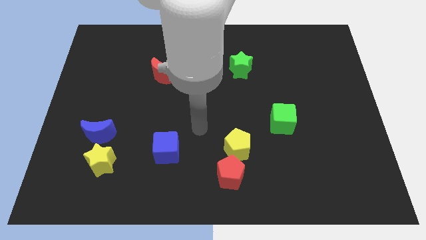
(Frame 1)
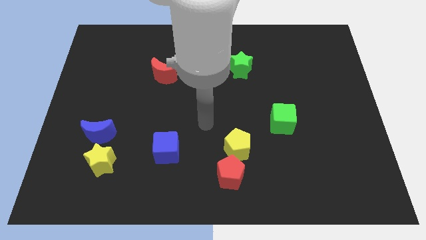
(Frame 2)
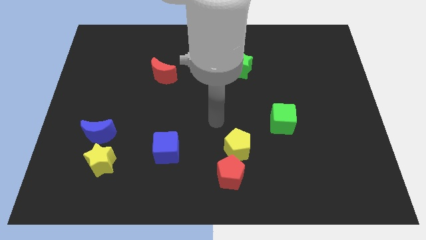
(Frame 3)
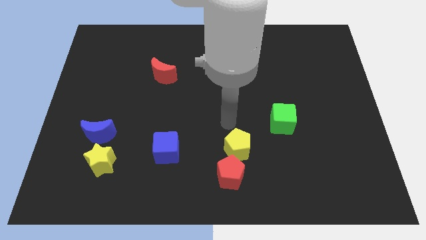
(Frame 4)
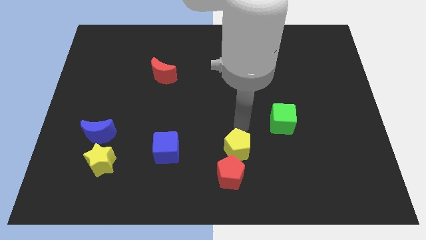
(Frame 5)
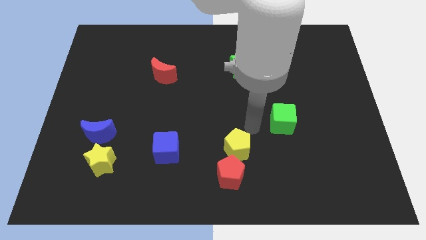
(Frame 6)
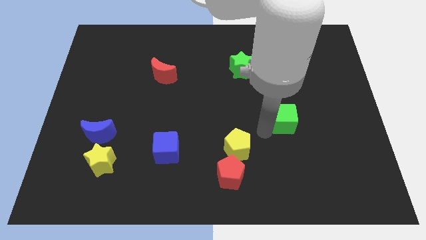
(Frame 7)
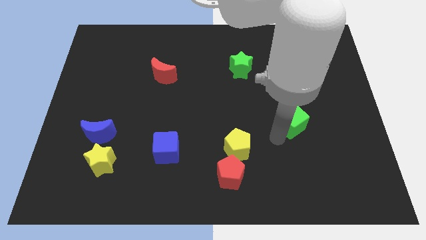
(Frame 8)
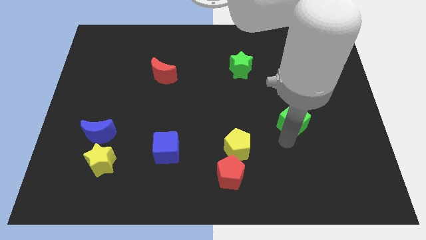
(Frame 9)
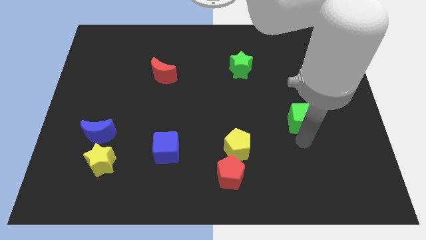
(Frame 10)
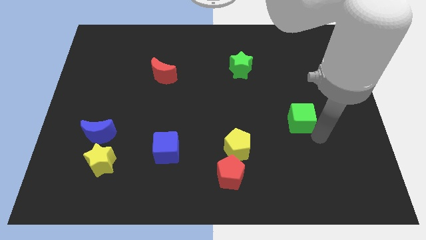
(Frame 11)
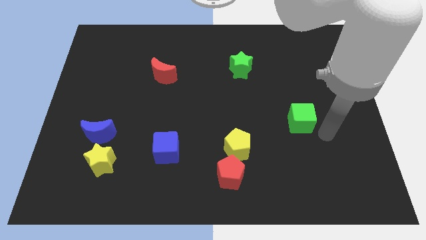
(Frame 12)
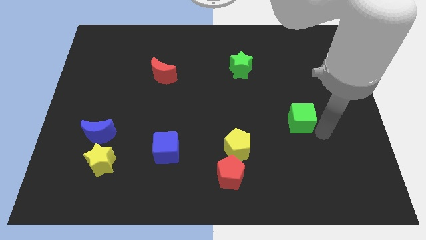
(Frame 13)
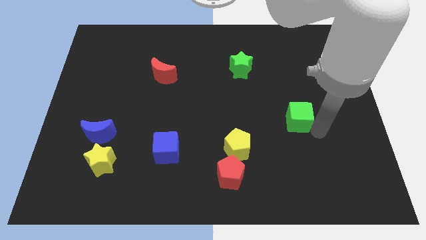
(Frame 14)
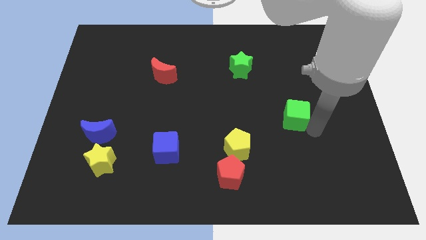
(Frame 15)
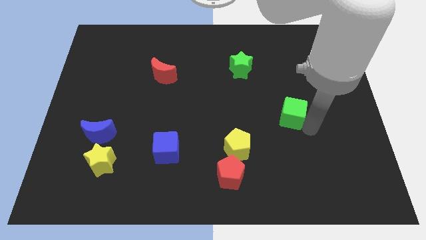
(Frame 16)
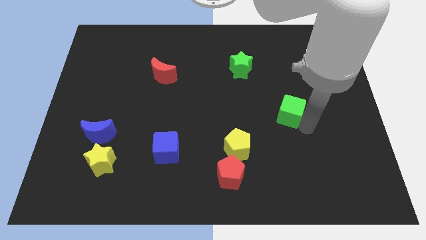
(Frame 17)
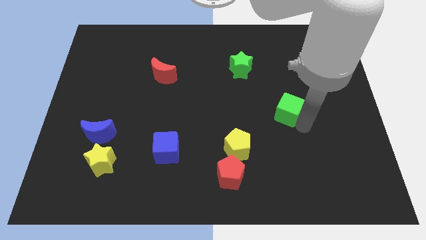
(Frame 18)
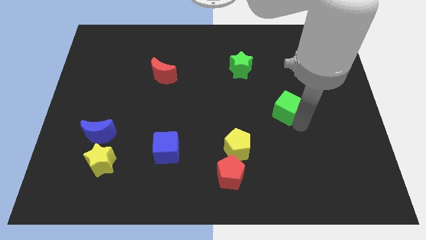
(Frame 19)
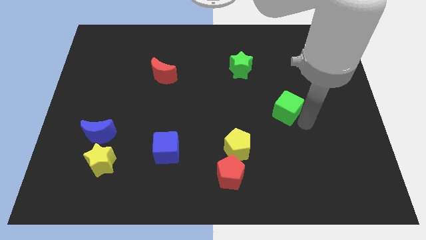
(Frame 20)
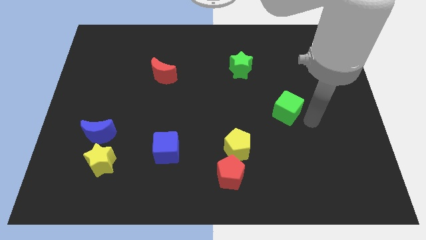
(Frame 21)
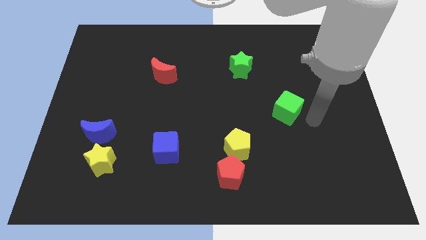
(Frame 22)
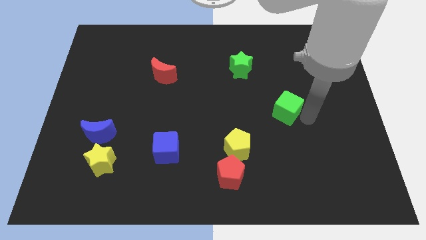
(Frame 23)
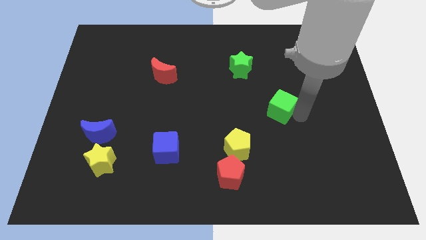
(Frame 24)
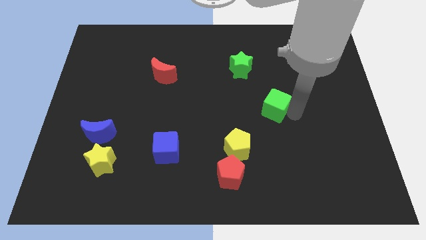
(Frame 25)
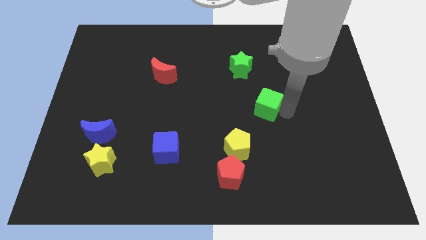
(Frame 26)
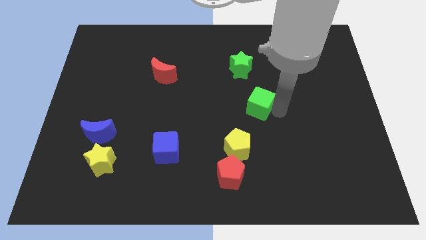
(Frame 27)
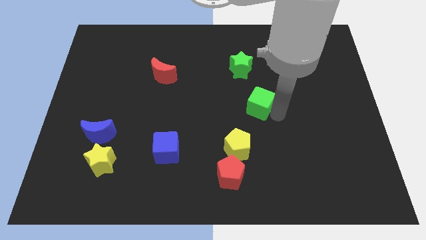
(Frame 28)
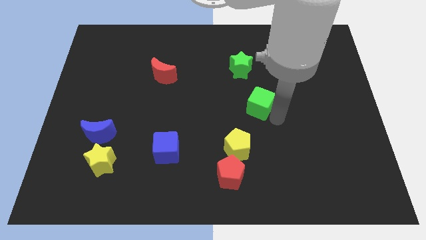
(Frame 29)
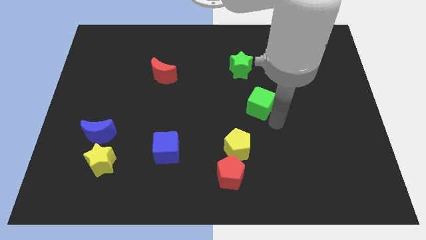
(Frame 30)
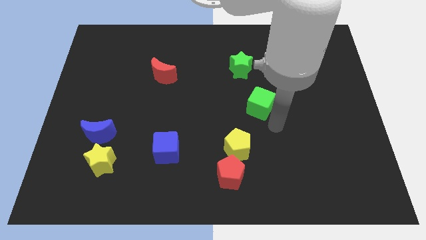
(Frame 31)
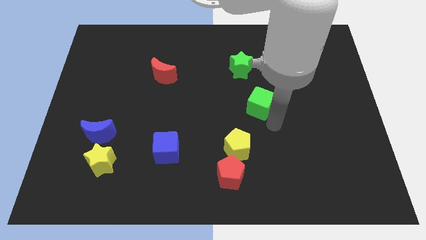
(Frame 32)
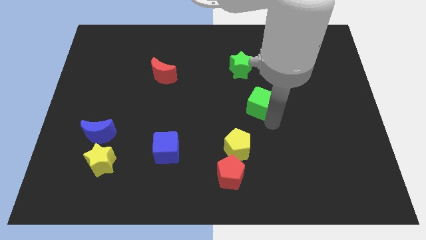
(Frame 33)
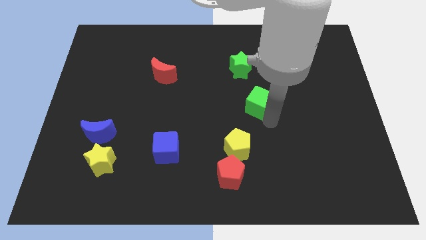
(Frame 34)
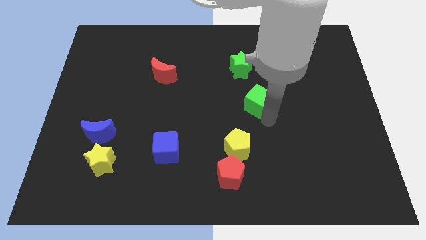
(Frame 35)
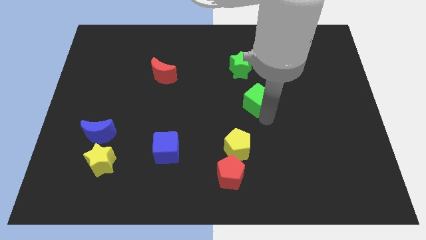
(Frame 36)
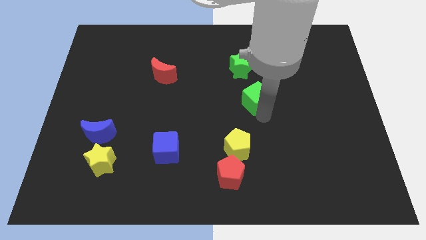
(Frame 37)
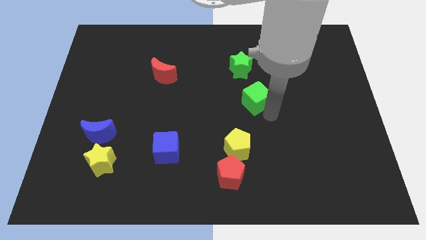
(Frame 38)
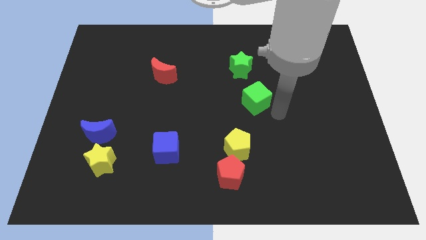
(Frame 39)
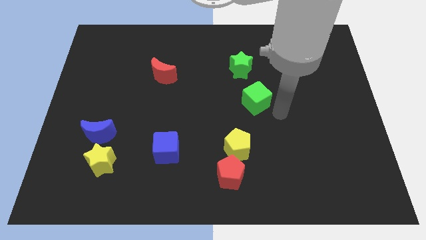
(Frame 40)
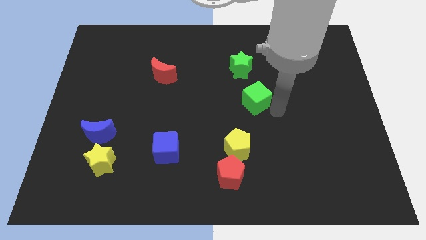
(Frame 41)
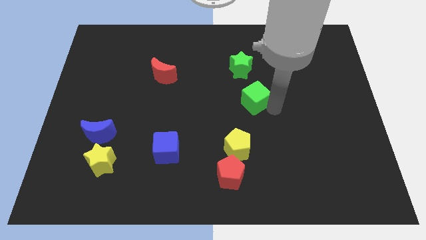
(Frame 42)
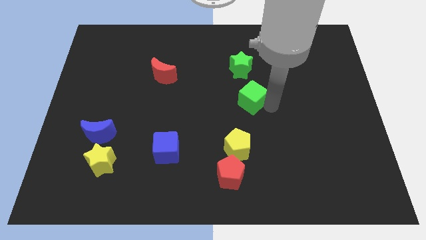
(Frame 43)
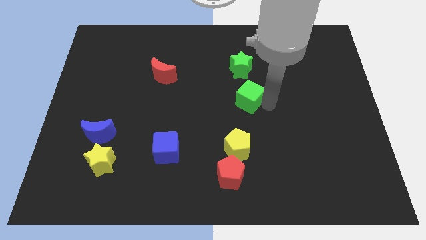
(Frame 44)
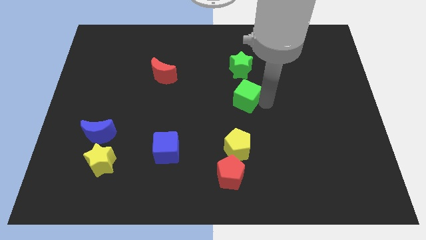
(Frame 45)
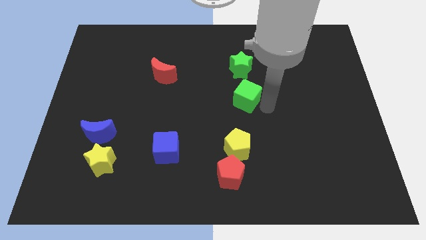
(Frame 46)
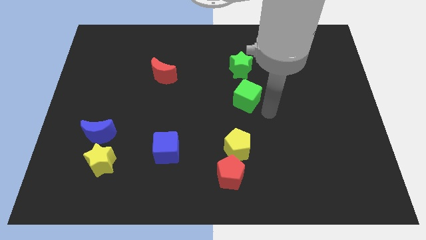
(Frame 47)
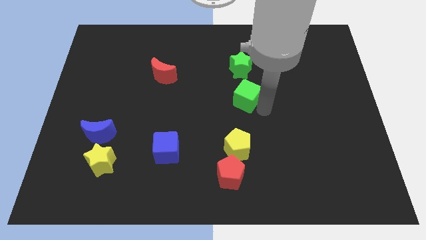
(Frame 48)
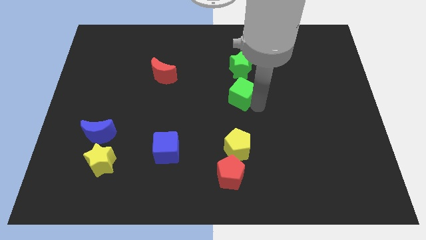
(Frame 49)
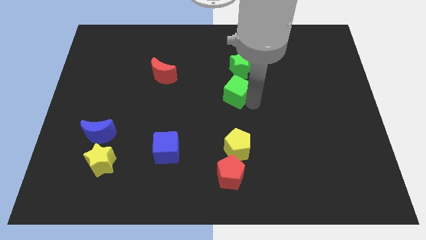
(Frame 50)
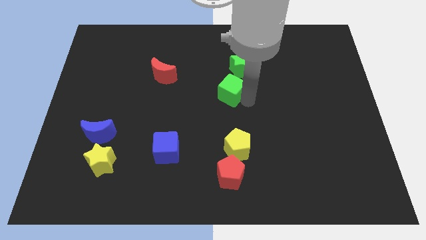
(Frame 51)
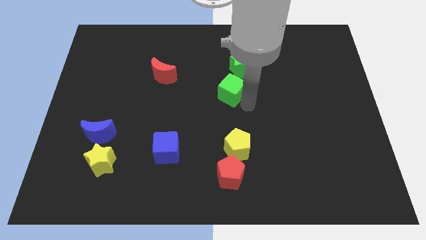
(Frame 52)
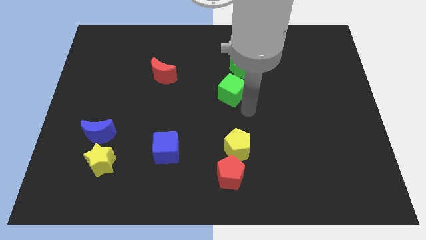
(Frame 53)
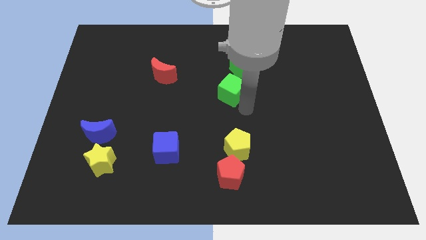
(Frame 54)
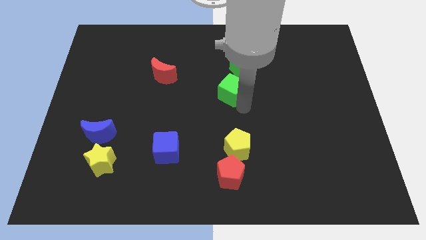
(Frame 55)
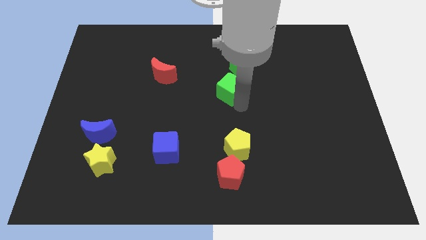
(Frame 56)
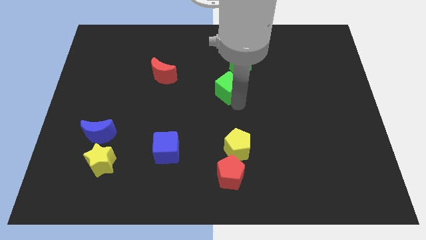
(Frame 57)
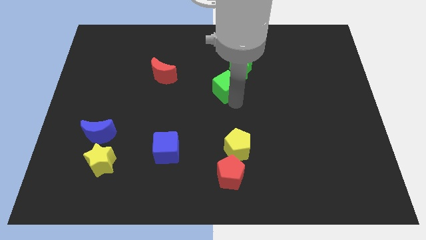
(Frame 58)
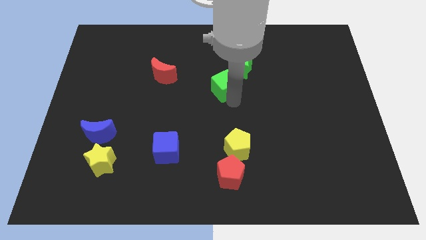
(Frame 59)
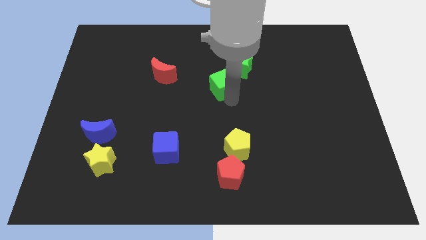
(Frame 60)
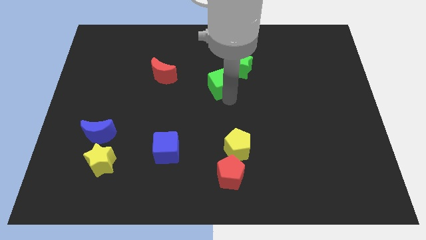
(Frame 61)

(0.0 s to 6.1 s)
move the green cube right of the red moon

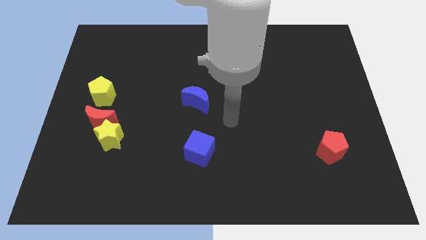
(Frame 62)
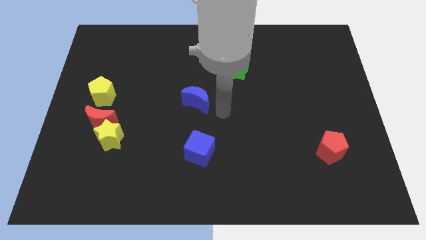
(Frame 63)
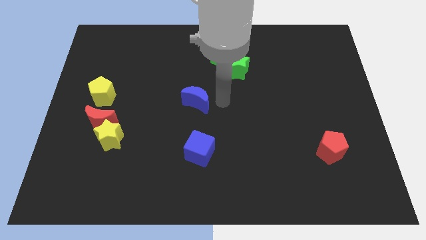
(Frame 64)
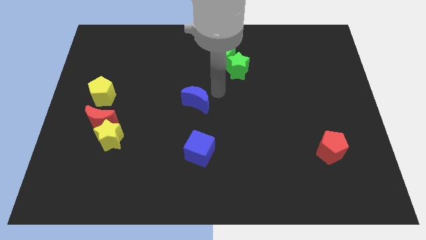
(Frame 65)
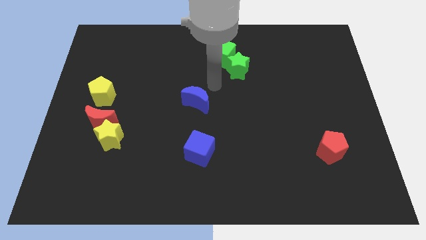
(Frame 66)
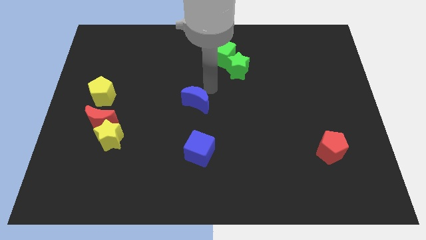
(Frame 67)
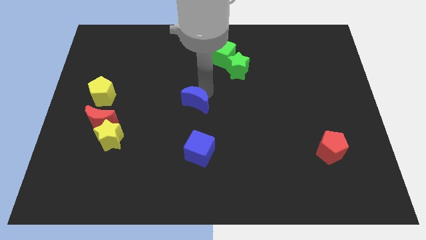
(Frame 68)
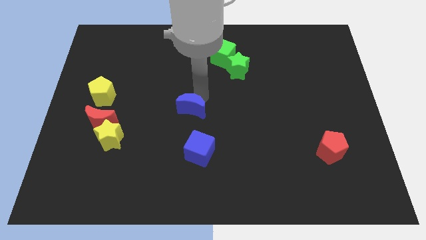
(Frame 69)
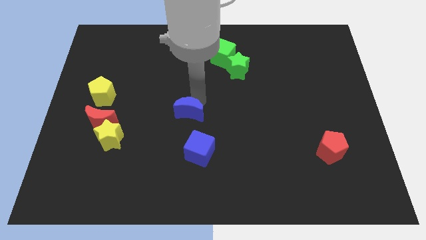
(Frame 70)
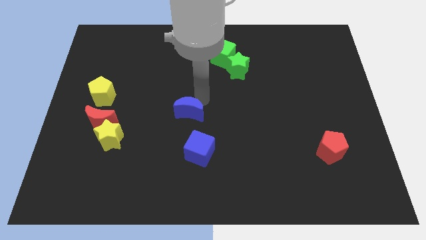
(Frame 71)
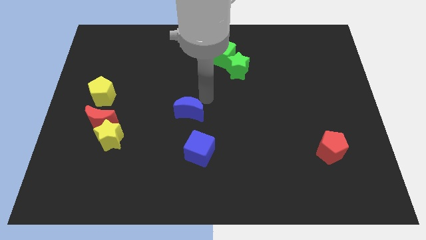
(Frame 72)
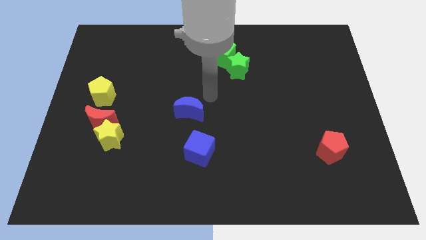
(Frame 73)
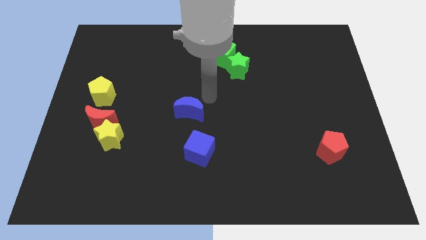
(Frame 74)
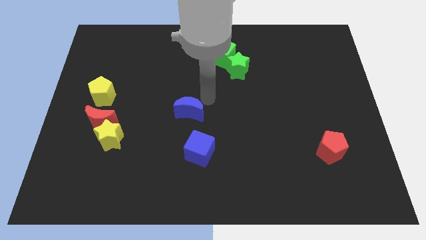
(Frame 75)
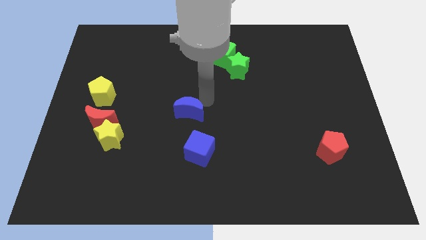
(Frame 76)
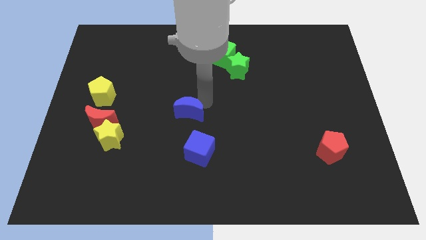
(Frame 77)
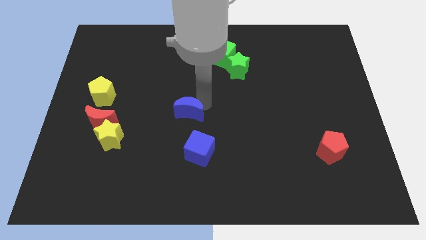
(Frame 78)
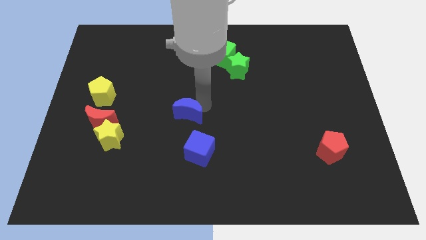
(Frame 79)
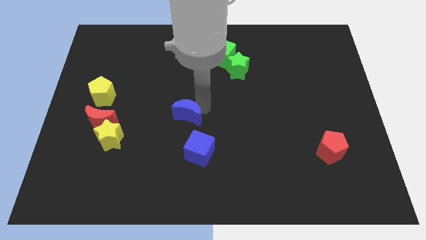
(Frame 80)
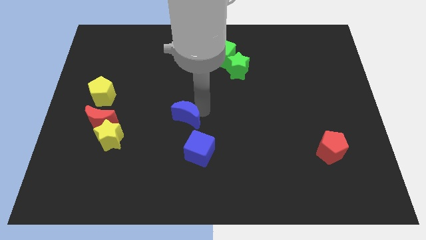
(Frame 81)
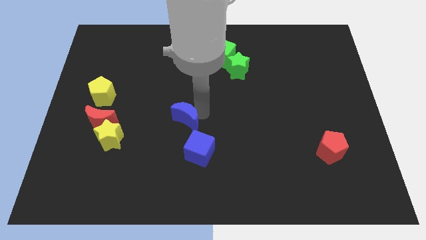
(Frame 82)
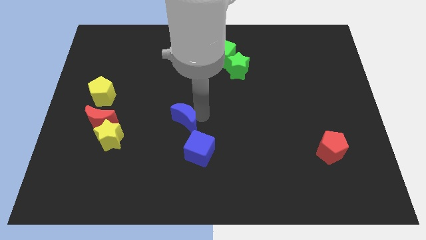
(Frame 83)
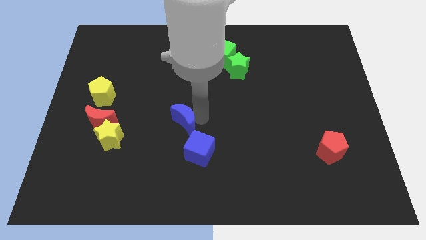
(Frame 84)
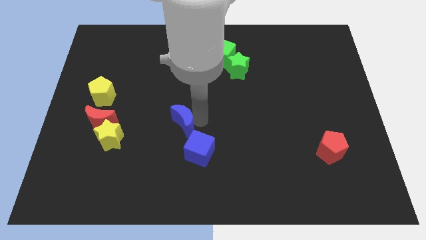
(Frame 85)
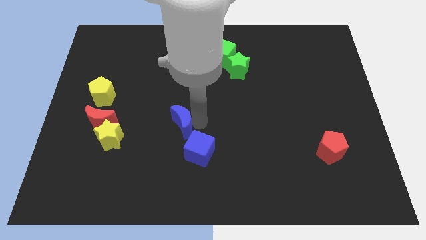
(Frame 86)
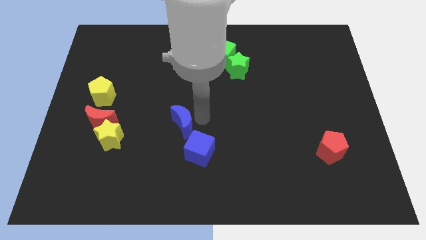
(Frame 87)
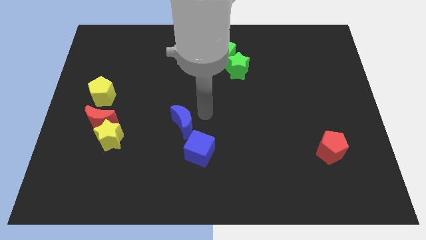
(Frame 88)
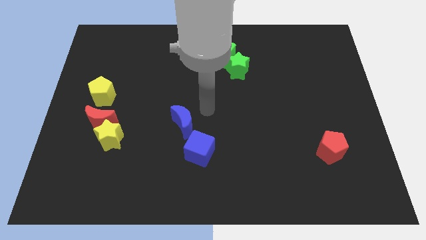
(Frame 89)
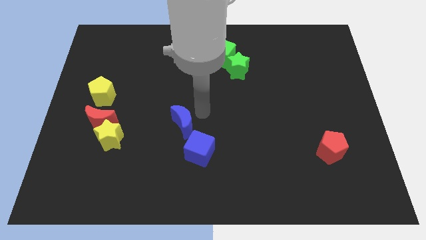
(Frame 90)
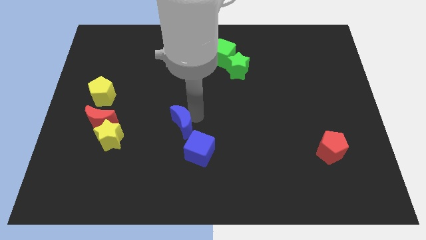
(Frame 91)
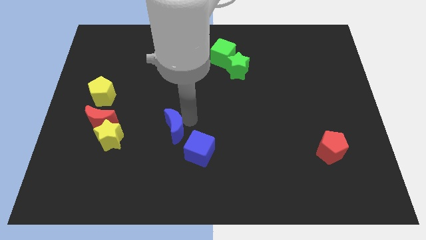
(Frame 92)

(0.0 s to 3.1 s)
push the blue moon just right of the yellow star
